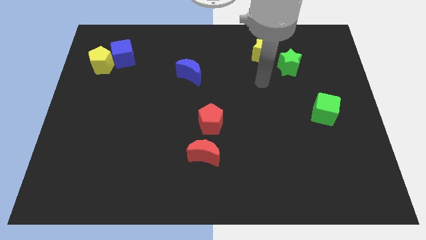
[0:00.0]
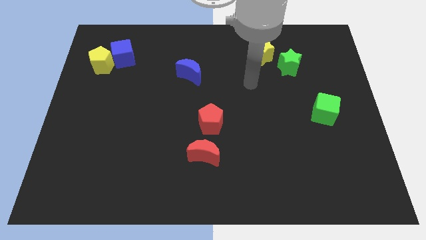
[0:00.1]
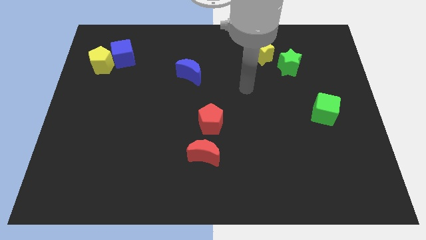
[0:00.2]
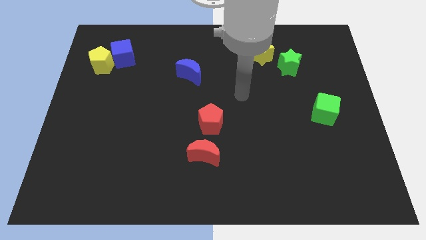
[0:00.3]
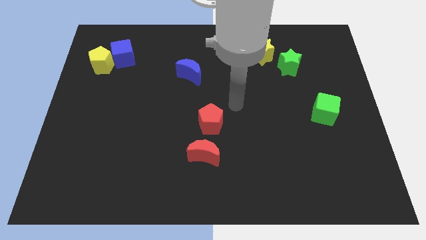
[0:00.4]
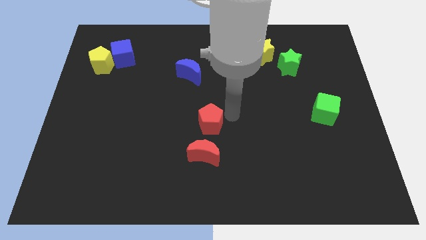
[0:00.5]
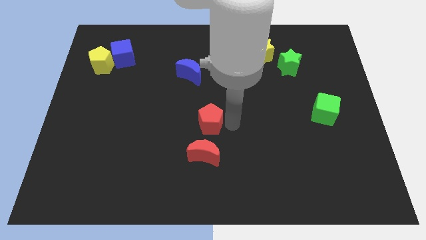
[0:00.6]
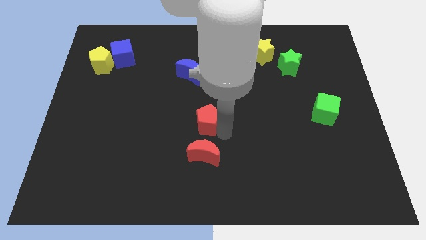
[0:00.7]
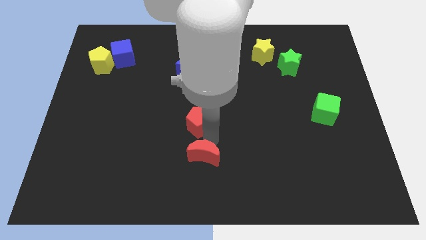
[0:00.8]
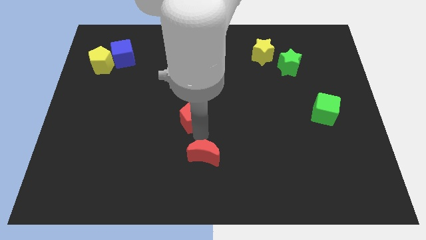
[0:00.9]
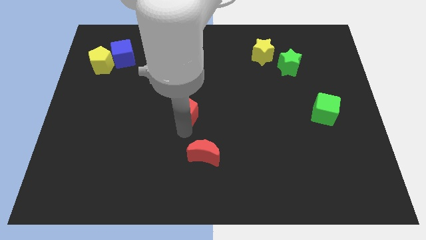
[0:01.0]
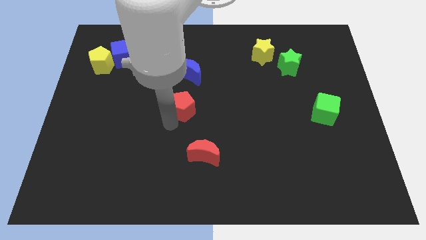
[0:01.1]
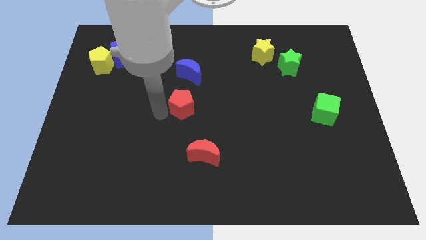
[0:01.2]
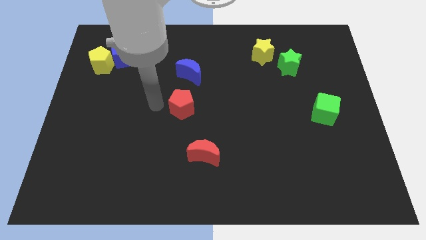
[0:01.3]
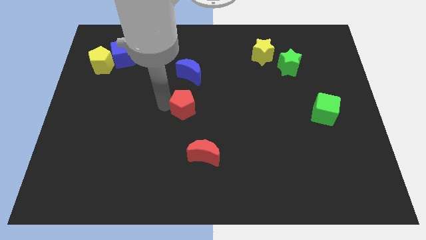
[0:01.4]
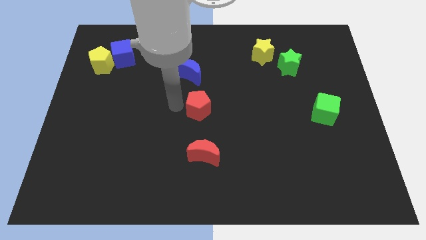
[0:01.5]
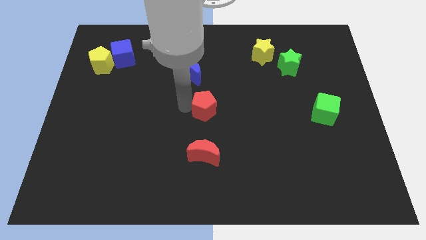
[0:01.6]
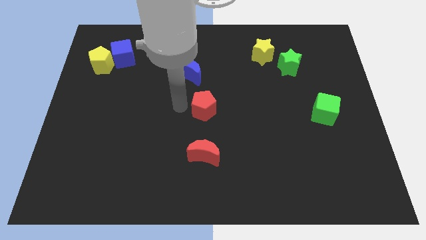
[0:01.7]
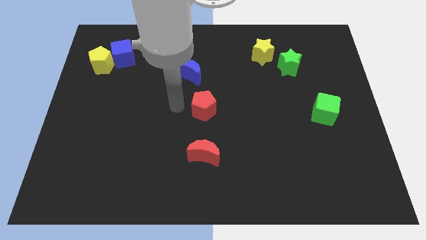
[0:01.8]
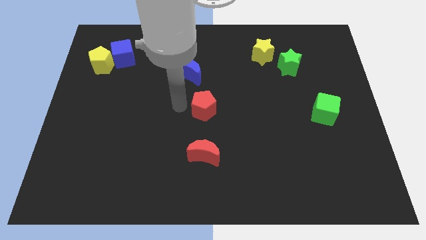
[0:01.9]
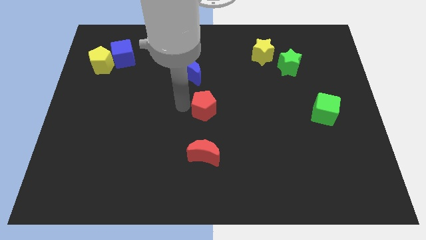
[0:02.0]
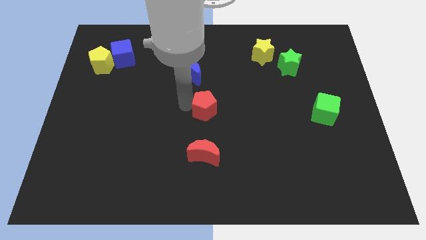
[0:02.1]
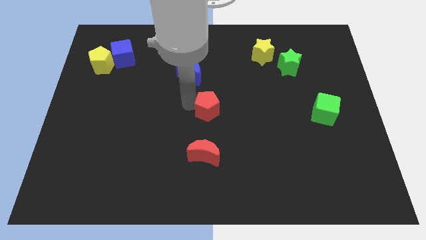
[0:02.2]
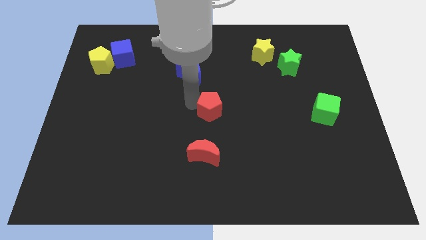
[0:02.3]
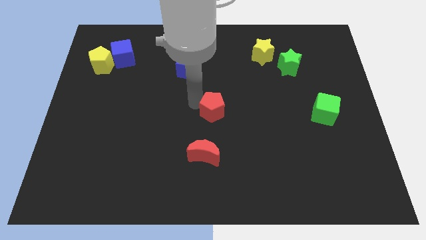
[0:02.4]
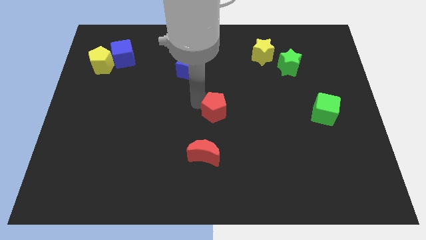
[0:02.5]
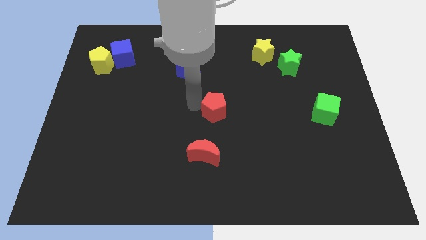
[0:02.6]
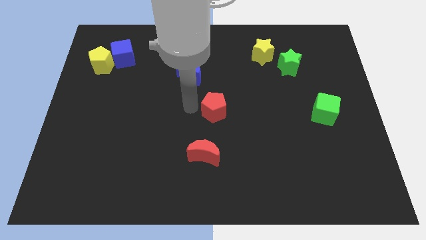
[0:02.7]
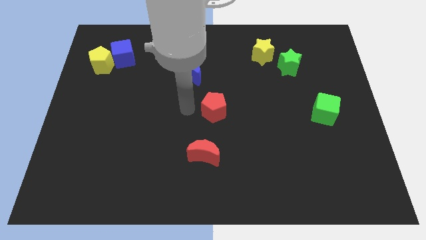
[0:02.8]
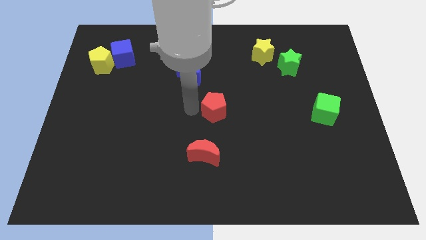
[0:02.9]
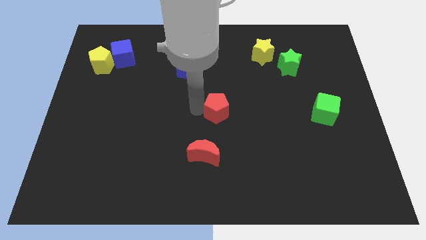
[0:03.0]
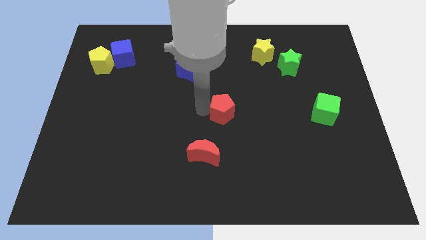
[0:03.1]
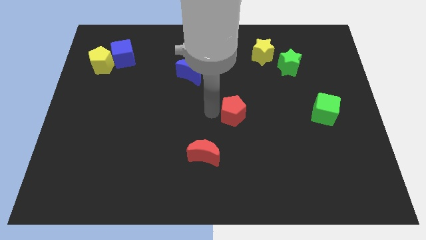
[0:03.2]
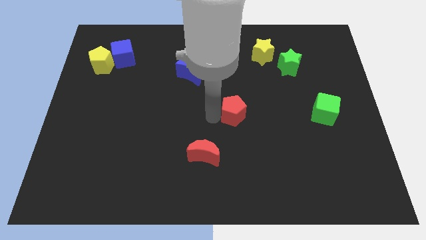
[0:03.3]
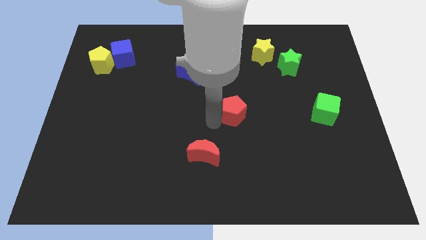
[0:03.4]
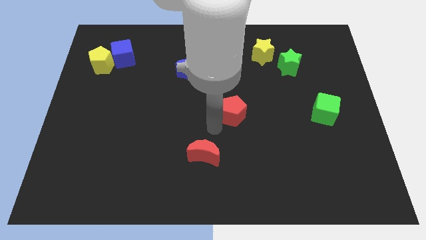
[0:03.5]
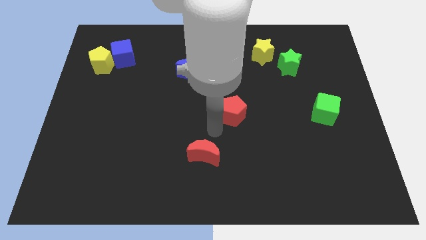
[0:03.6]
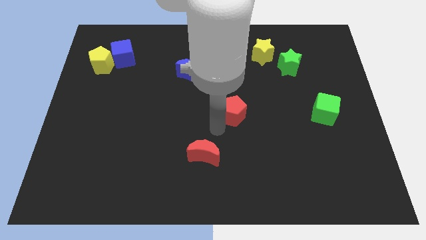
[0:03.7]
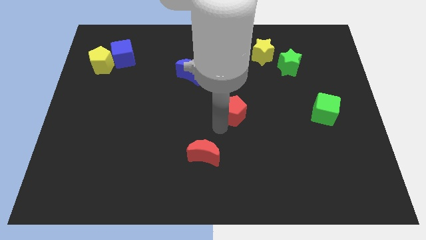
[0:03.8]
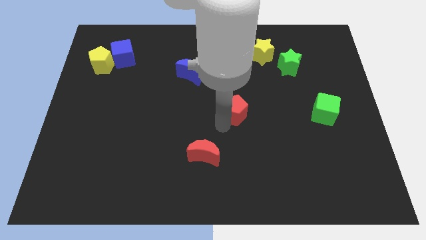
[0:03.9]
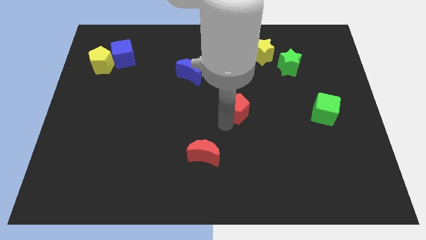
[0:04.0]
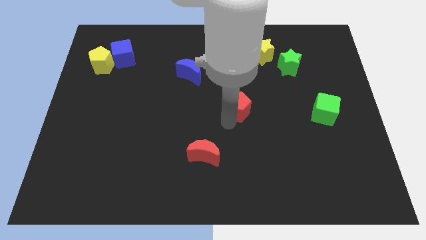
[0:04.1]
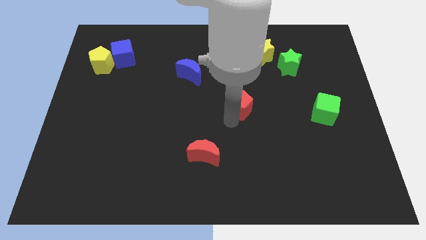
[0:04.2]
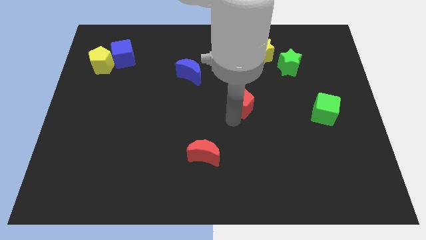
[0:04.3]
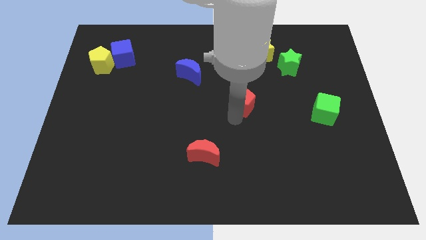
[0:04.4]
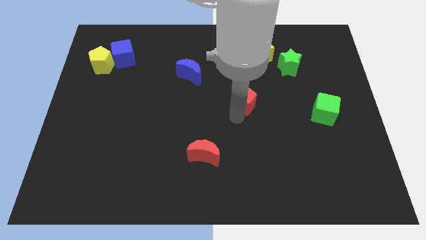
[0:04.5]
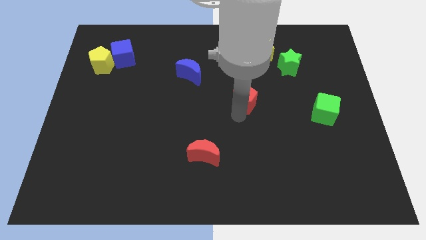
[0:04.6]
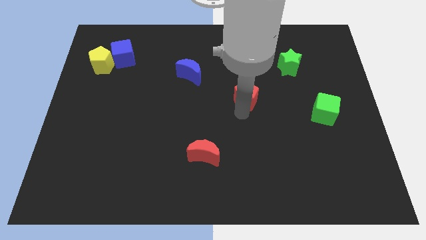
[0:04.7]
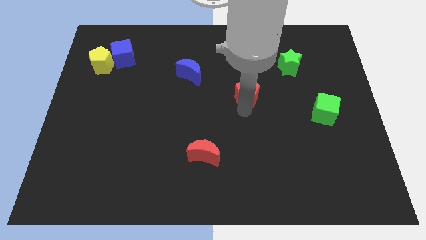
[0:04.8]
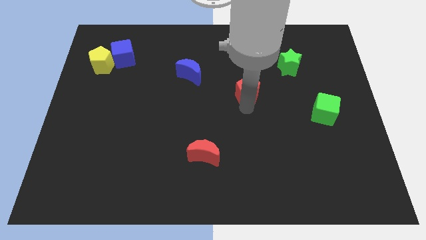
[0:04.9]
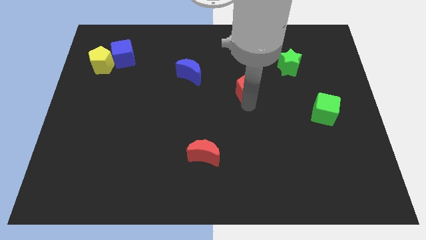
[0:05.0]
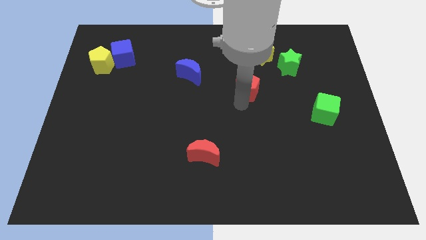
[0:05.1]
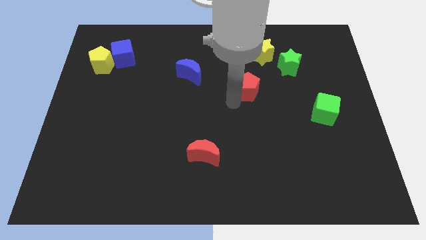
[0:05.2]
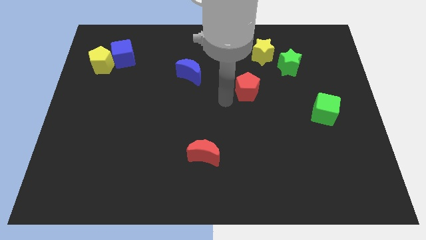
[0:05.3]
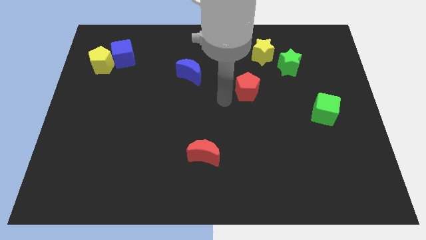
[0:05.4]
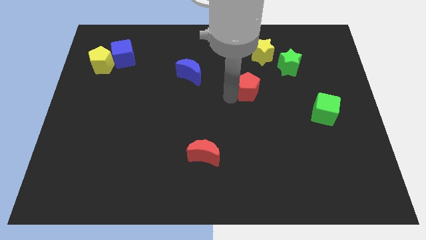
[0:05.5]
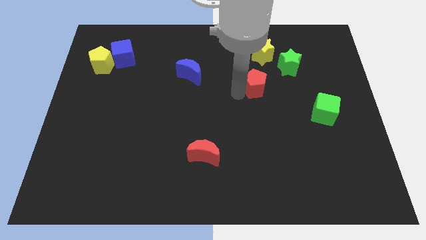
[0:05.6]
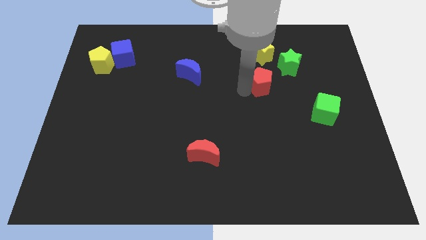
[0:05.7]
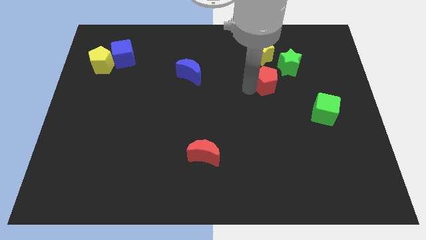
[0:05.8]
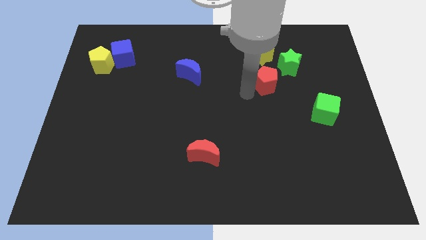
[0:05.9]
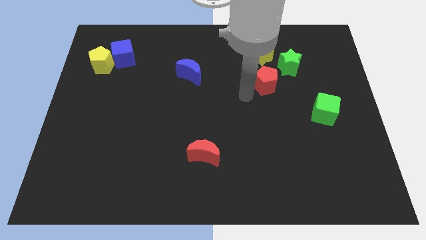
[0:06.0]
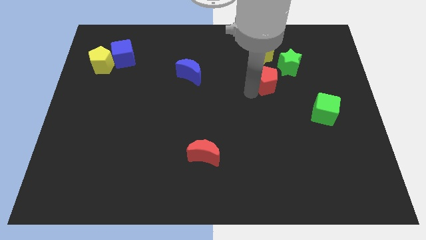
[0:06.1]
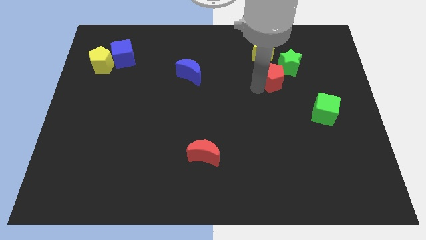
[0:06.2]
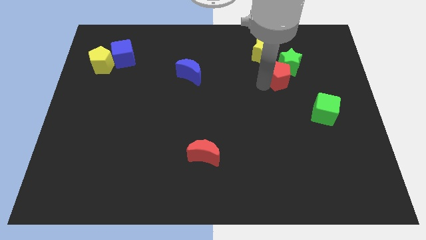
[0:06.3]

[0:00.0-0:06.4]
move the red pentagon next to the green star

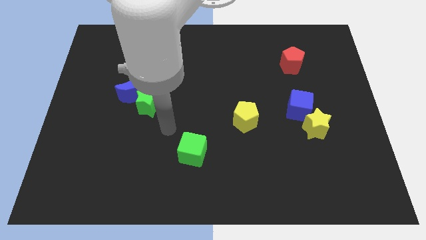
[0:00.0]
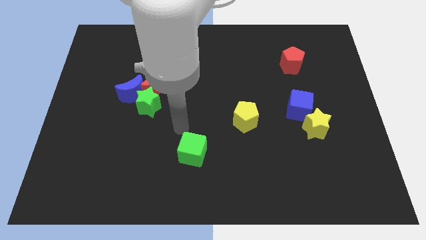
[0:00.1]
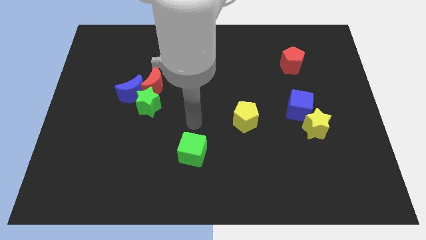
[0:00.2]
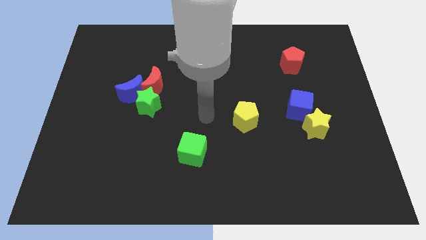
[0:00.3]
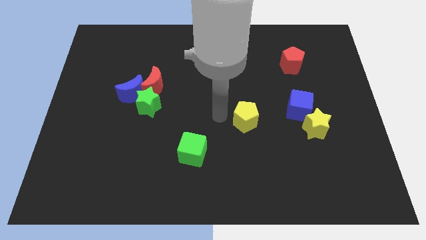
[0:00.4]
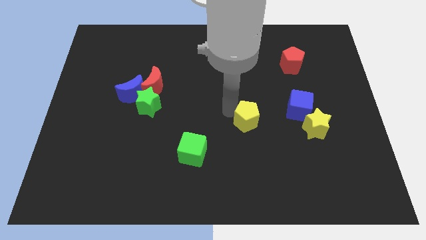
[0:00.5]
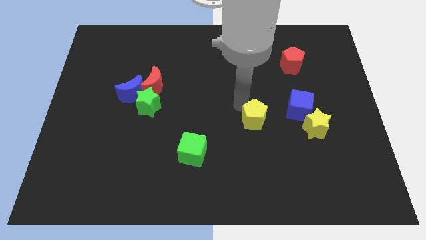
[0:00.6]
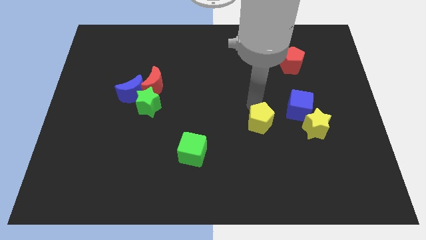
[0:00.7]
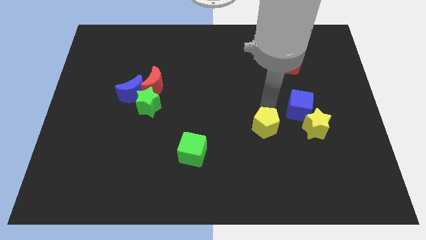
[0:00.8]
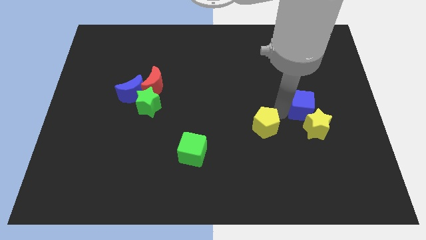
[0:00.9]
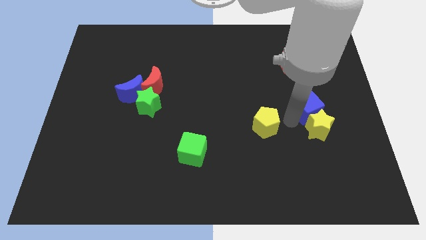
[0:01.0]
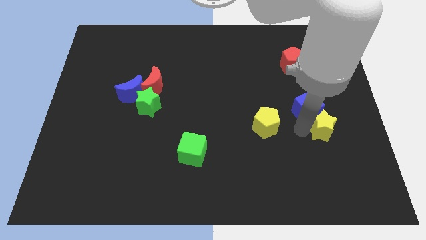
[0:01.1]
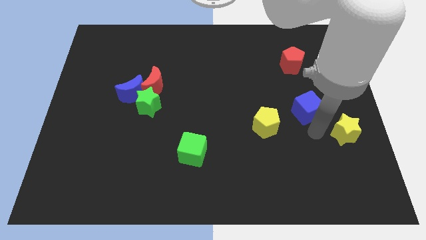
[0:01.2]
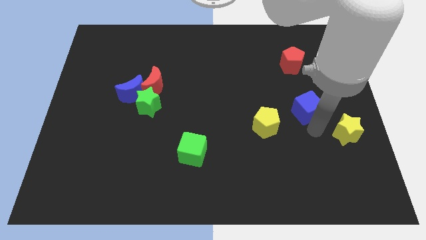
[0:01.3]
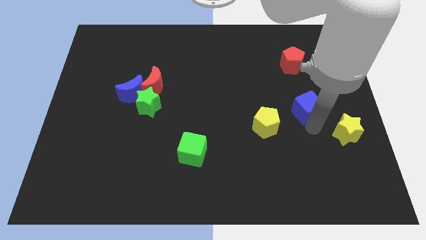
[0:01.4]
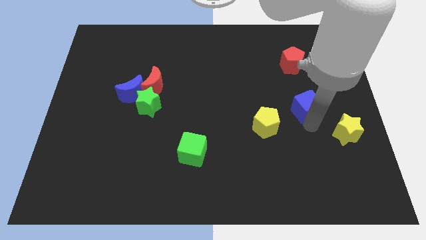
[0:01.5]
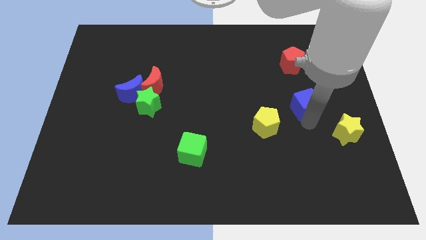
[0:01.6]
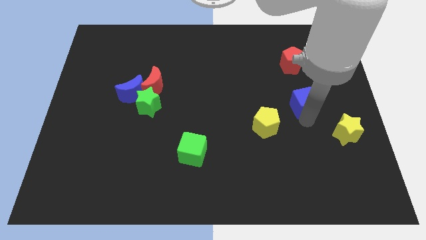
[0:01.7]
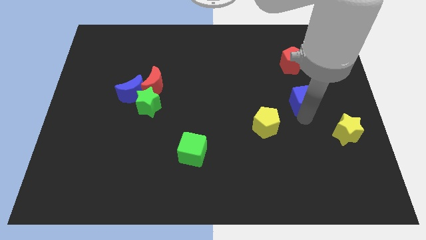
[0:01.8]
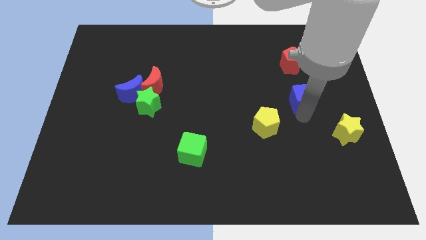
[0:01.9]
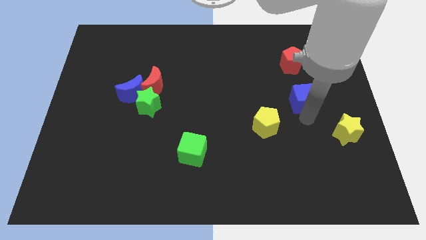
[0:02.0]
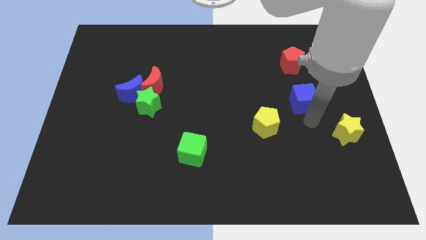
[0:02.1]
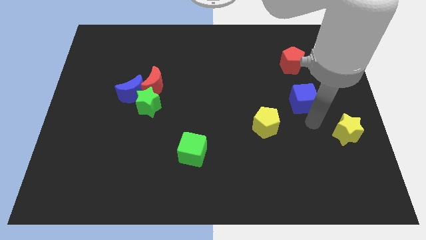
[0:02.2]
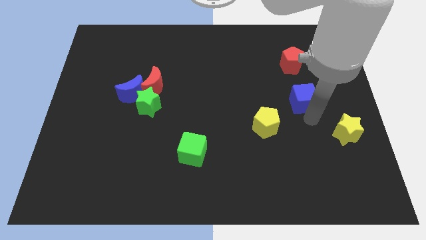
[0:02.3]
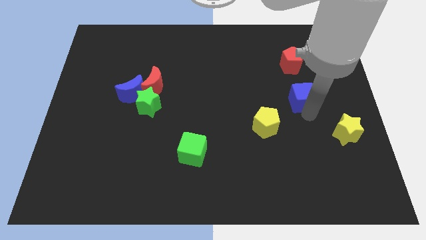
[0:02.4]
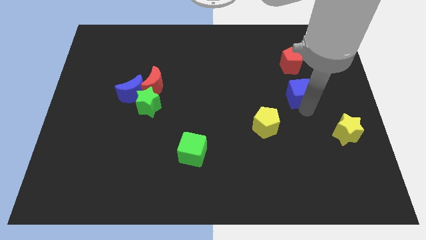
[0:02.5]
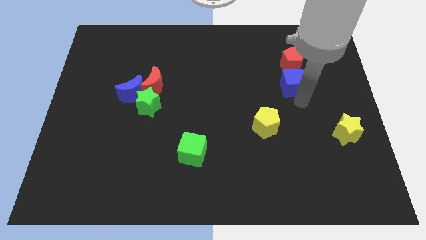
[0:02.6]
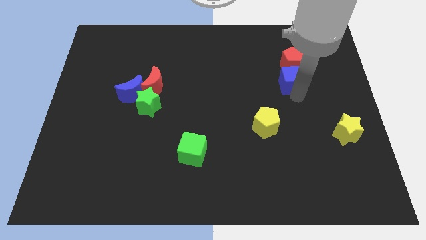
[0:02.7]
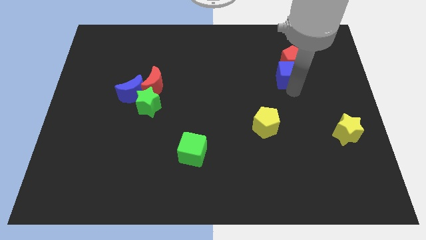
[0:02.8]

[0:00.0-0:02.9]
put the blue cube close to the red pentagon
